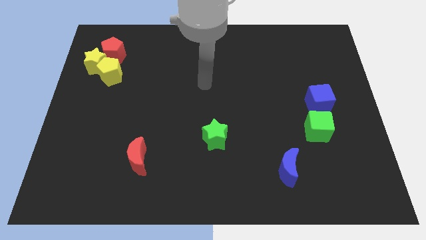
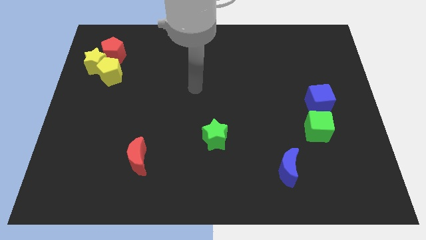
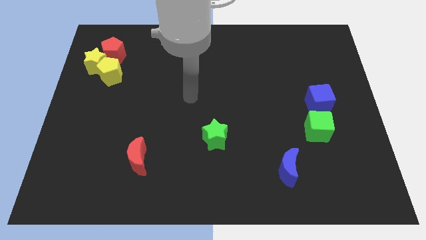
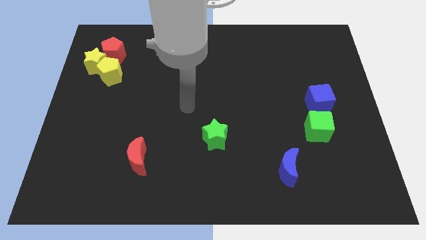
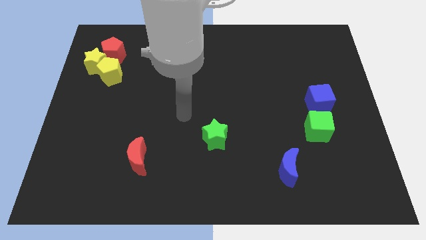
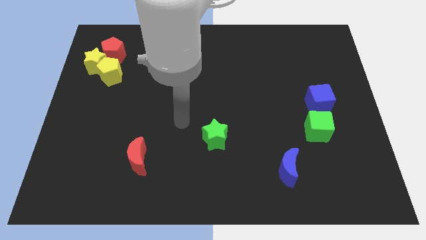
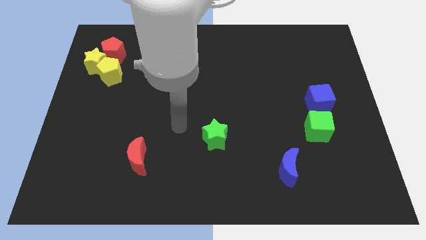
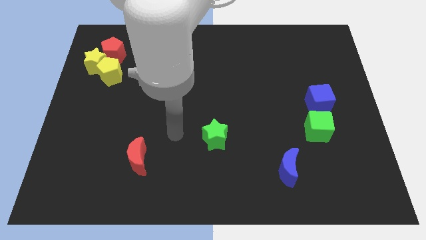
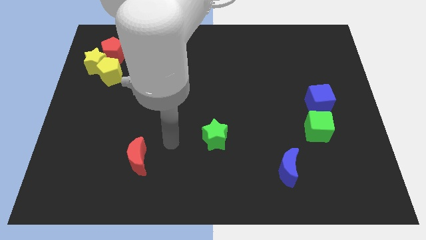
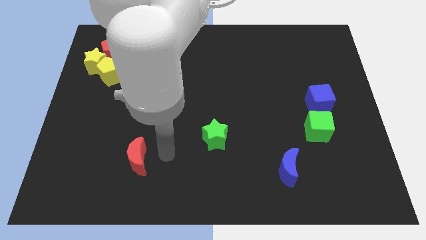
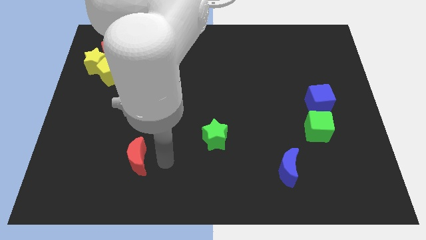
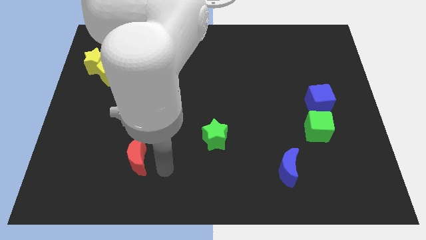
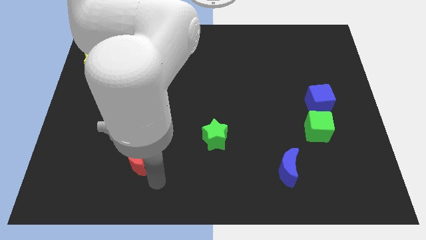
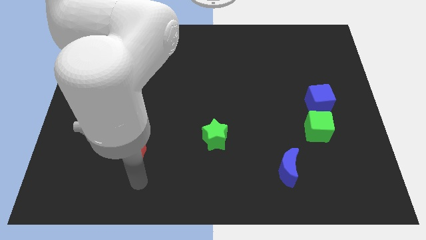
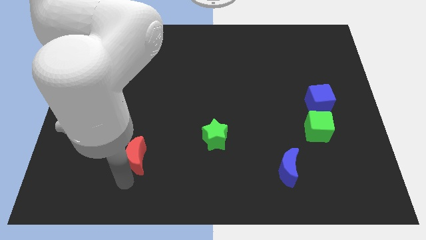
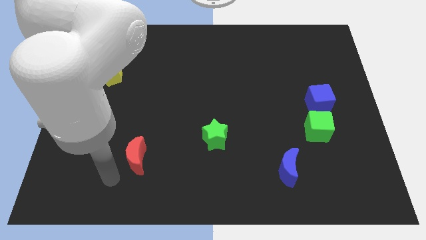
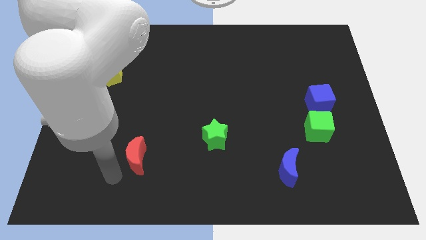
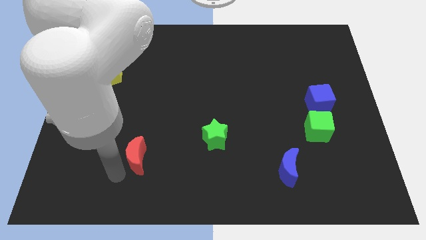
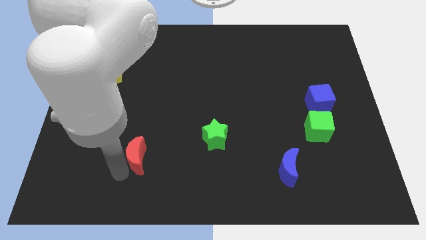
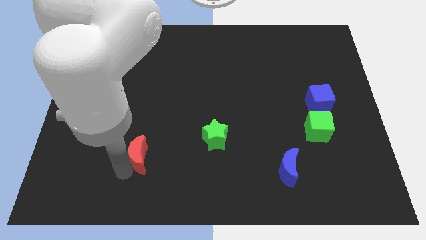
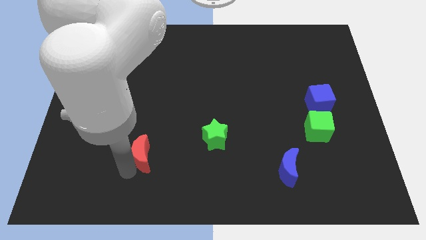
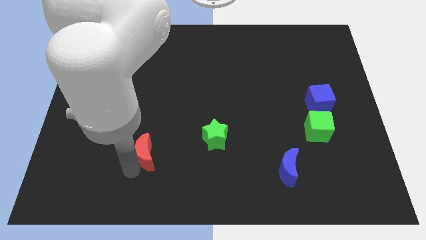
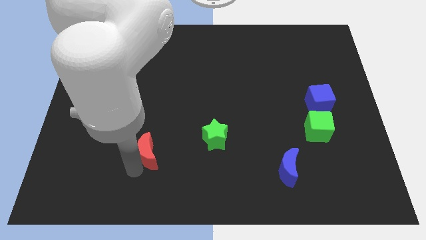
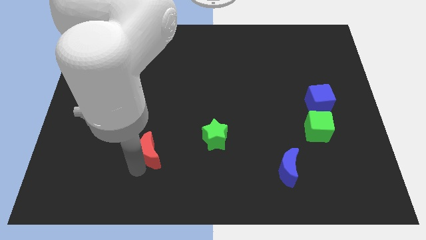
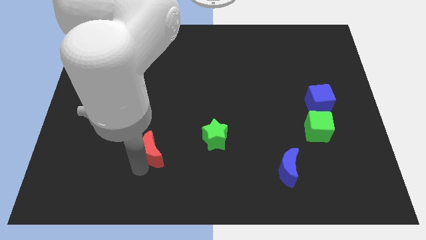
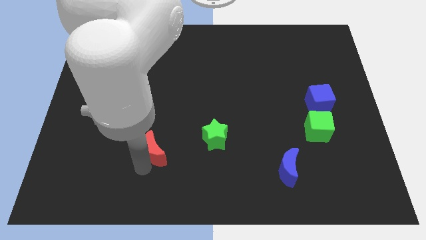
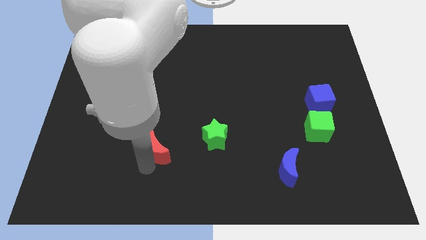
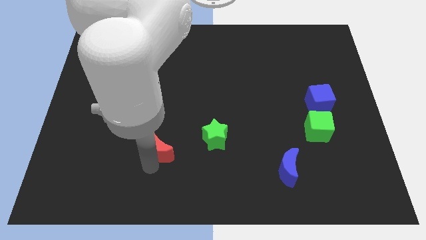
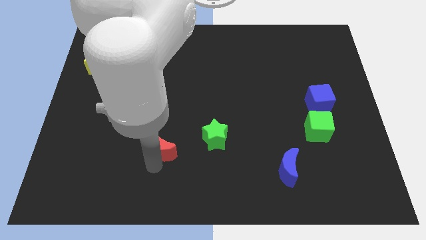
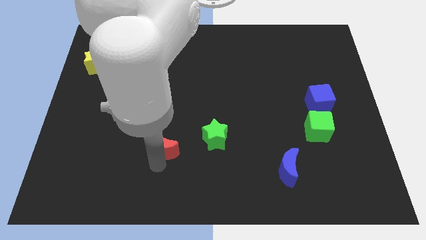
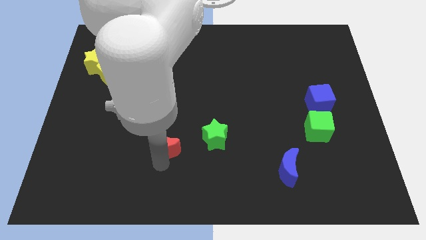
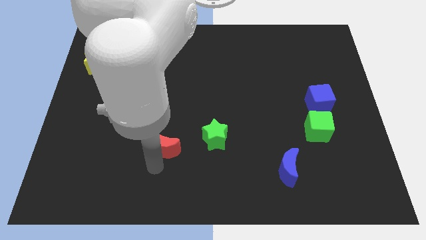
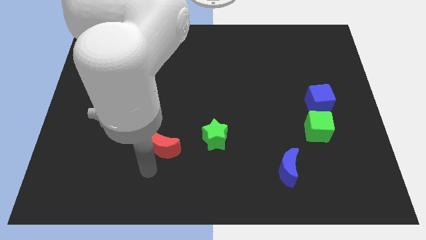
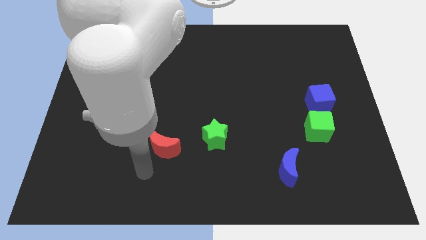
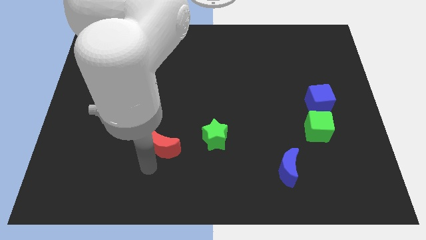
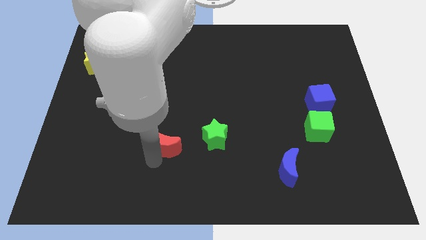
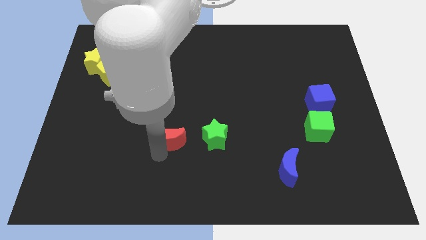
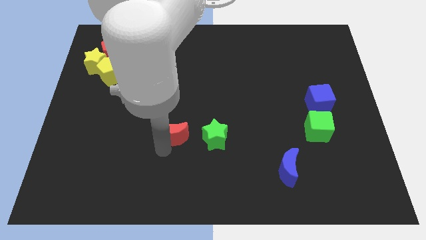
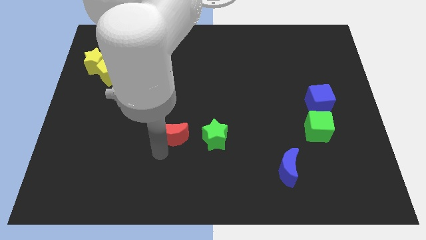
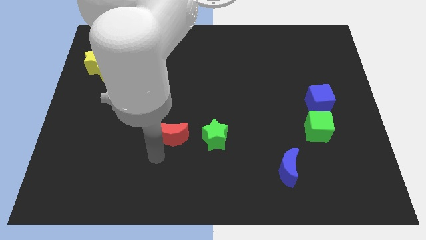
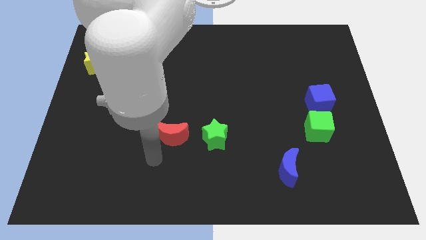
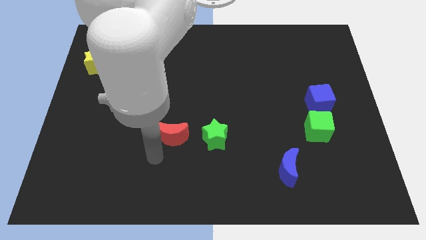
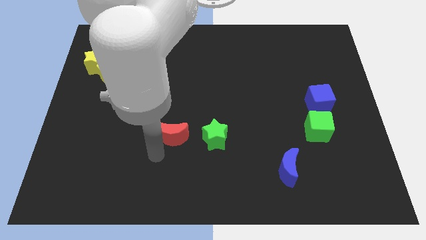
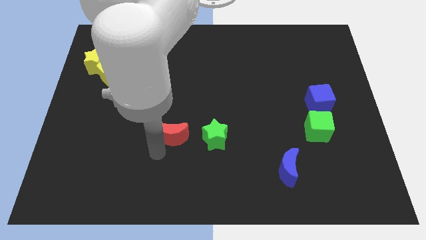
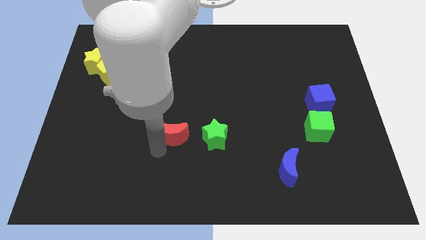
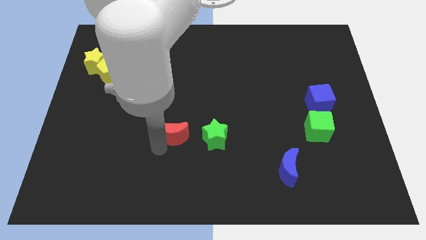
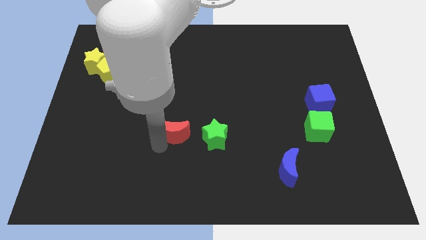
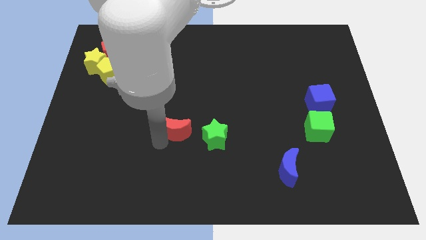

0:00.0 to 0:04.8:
push the red moon to the center of the board

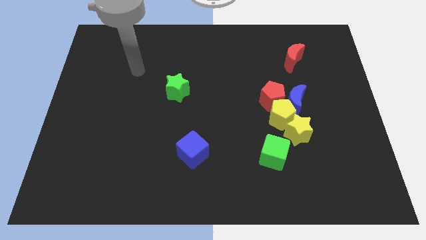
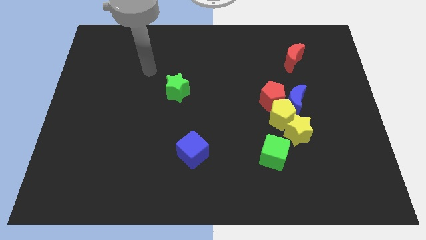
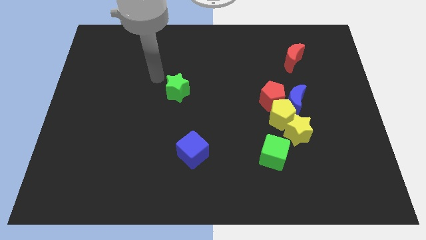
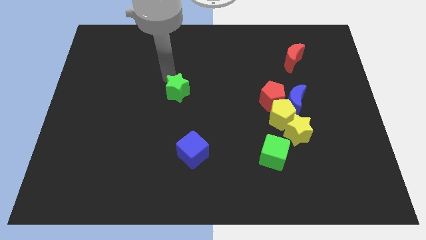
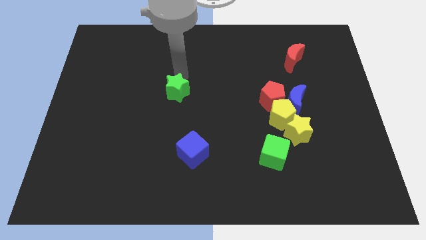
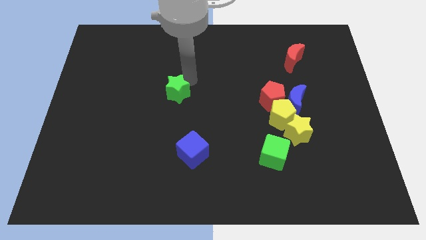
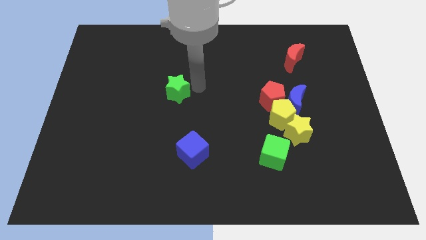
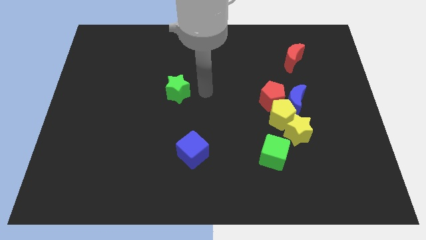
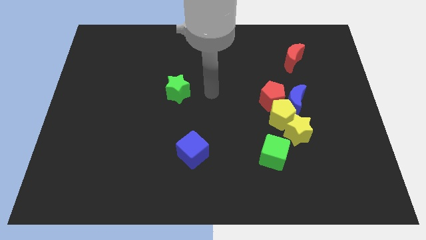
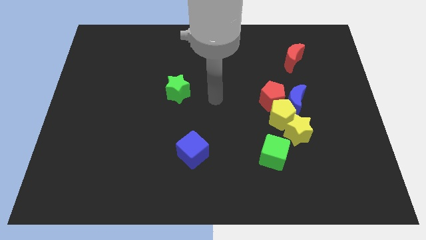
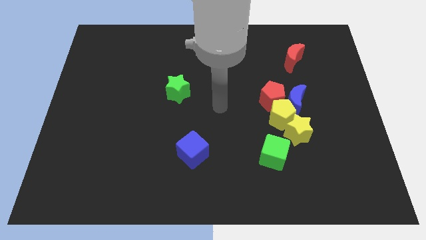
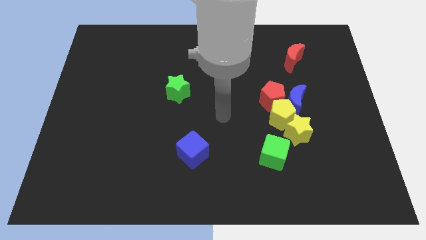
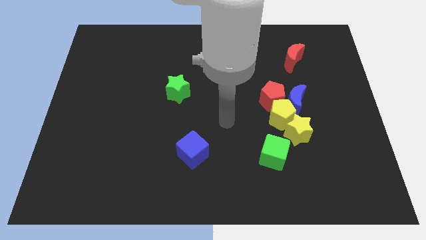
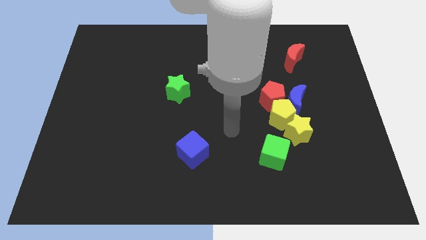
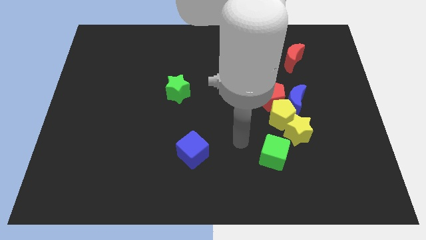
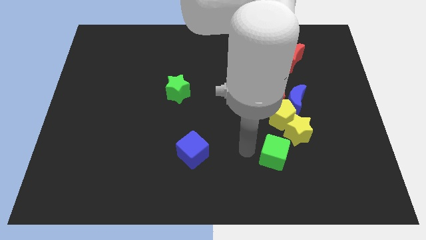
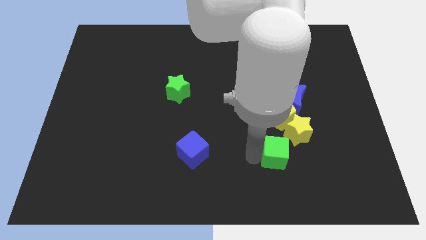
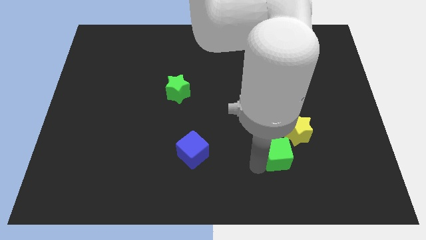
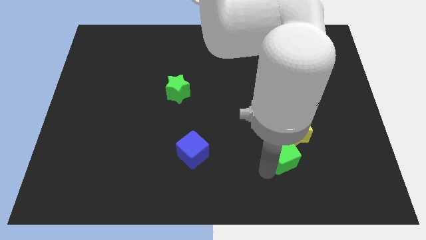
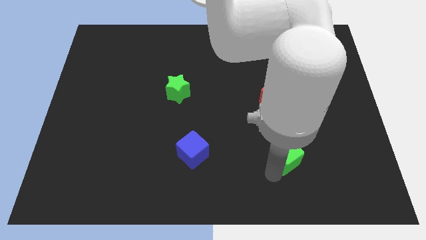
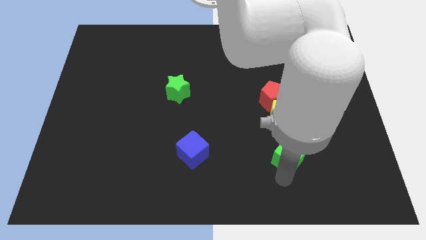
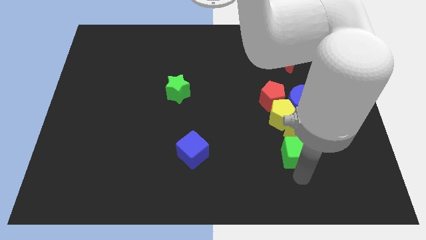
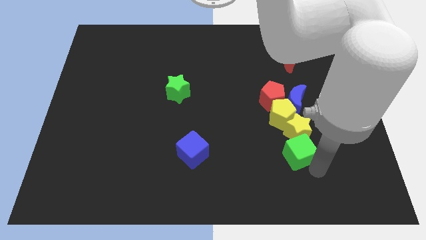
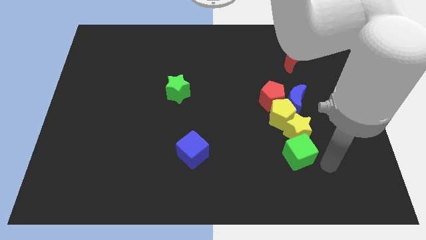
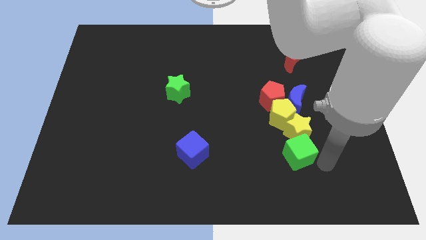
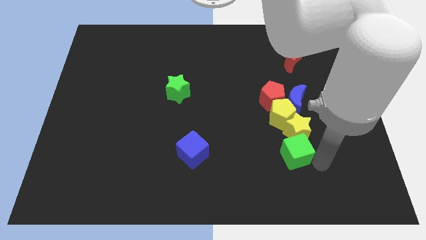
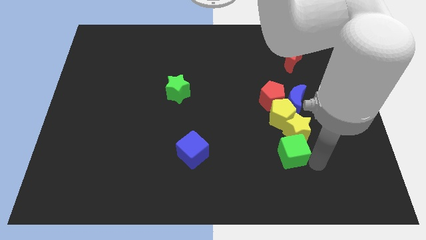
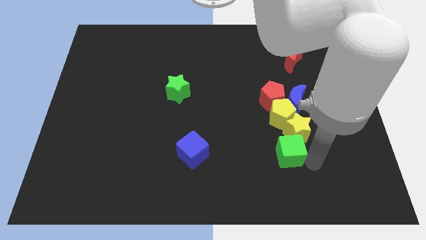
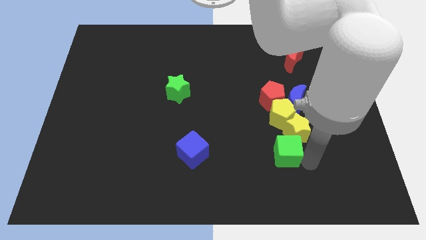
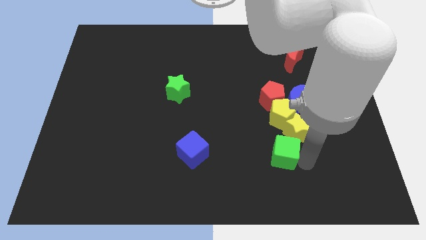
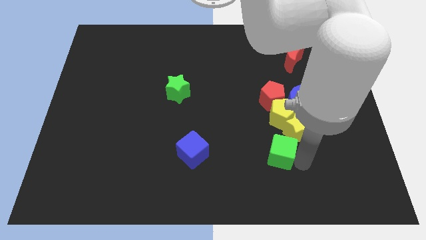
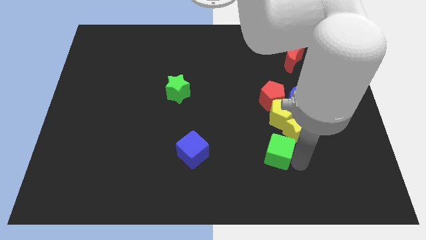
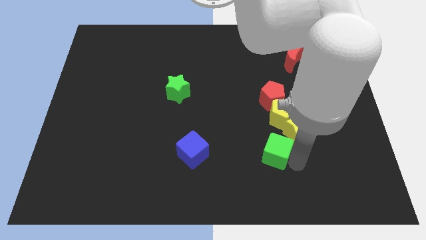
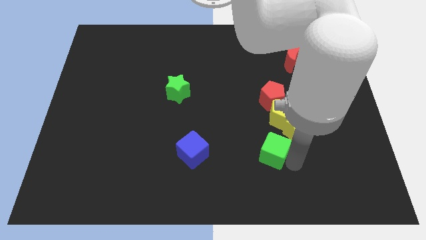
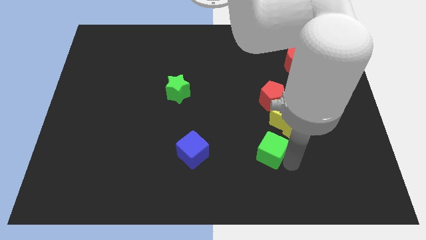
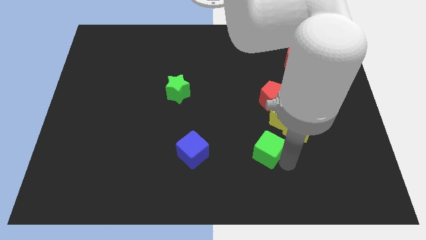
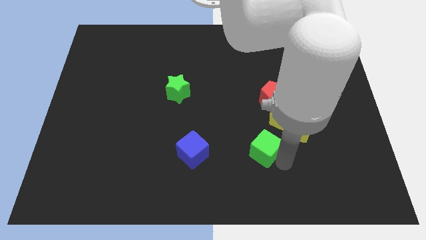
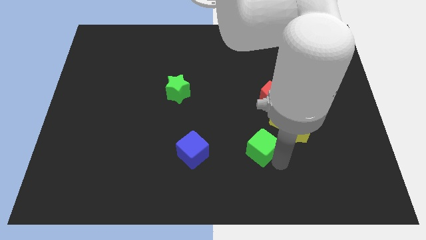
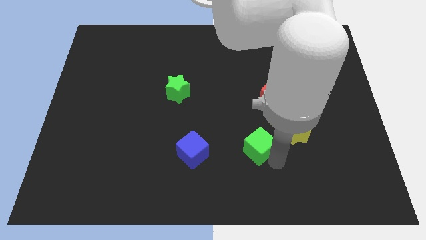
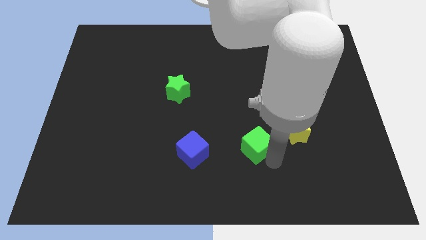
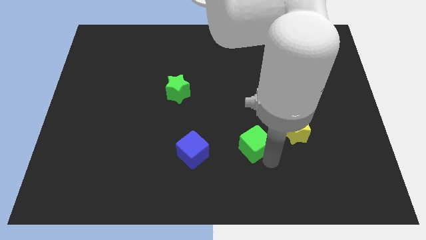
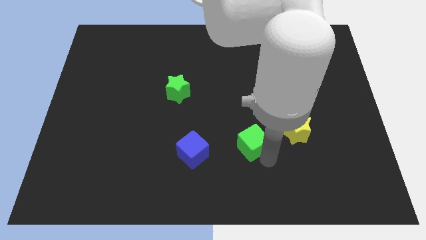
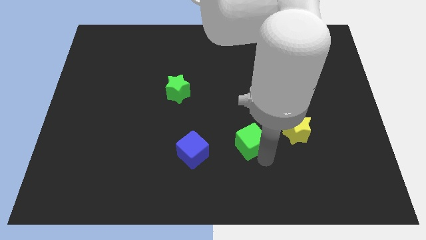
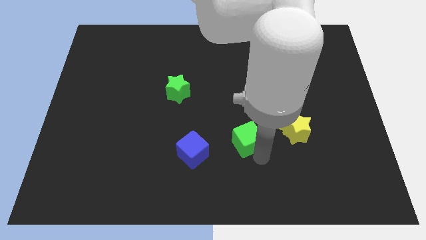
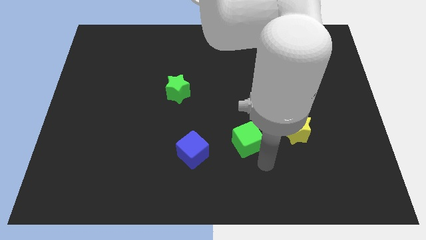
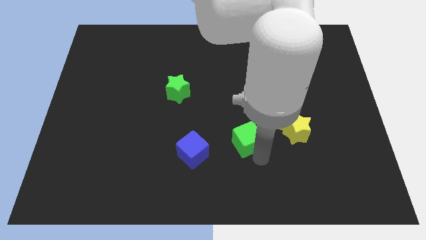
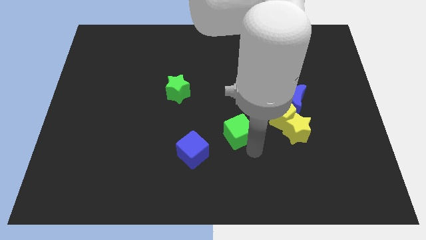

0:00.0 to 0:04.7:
put the green cube to the center of the board
